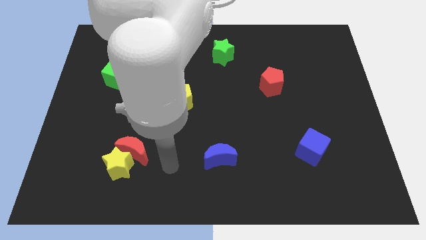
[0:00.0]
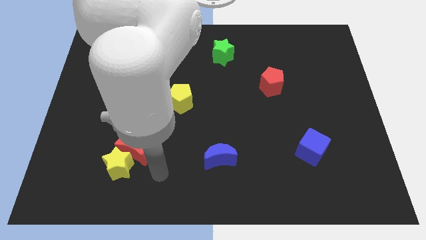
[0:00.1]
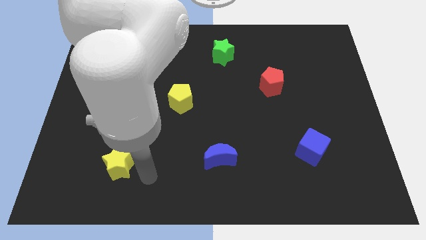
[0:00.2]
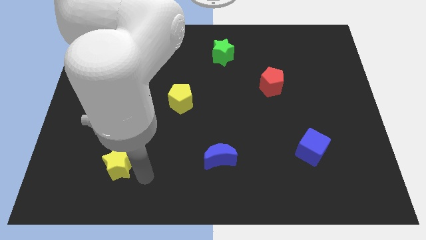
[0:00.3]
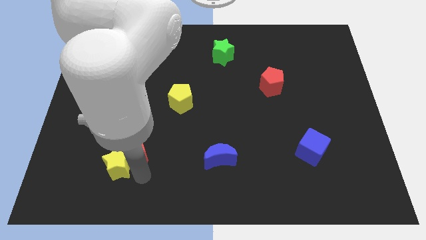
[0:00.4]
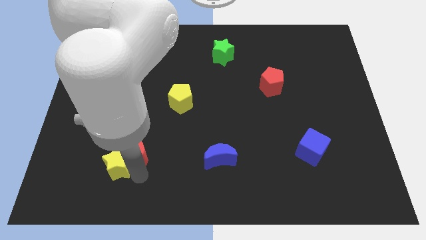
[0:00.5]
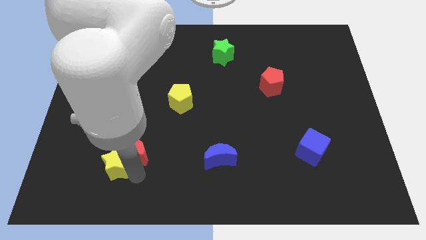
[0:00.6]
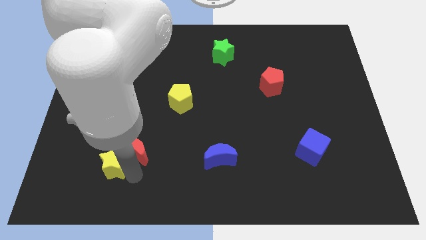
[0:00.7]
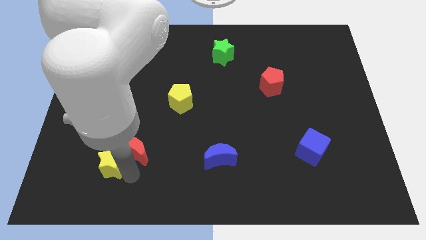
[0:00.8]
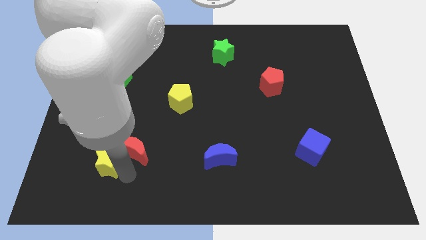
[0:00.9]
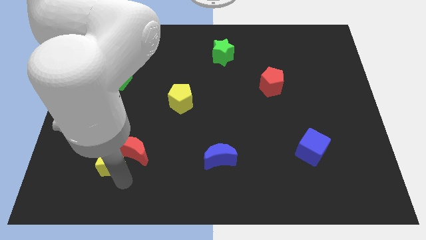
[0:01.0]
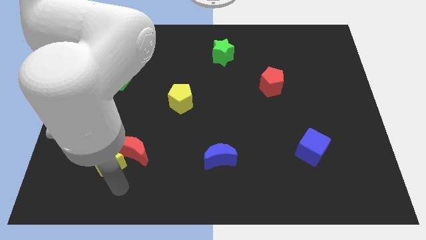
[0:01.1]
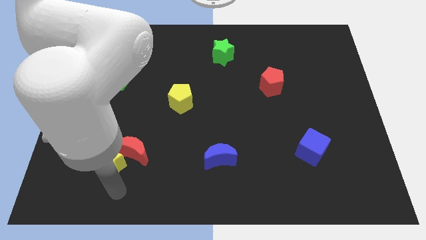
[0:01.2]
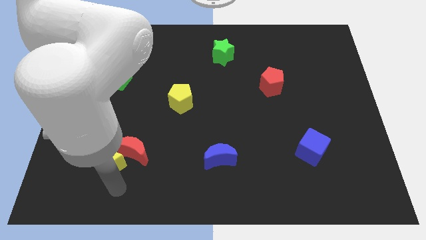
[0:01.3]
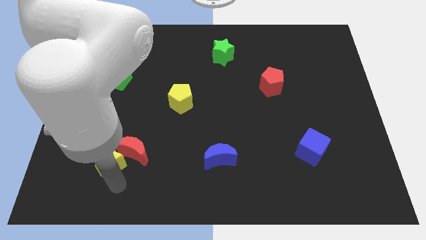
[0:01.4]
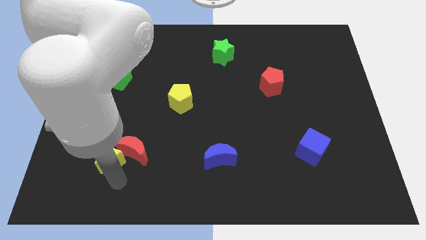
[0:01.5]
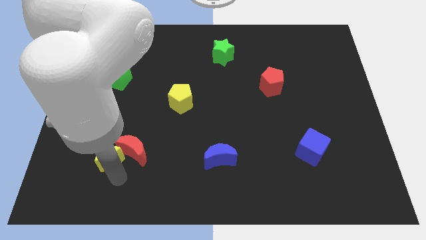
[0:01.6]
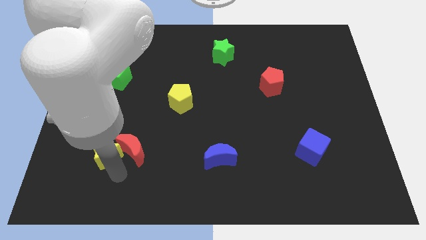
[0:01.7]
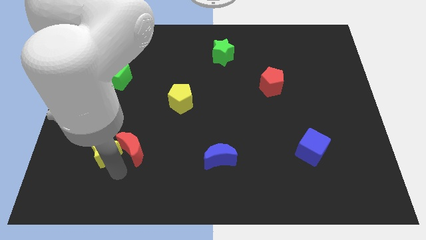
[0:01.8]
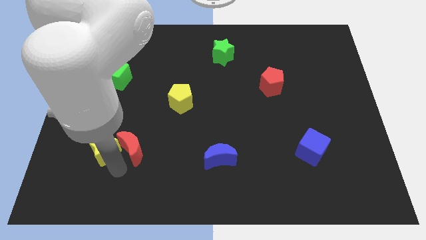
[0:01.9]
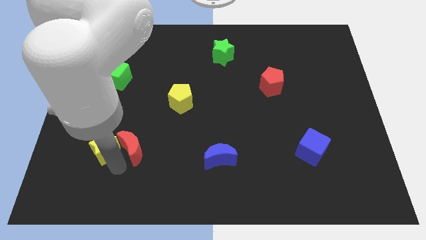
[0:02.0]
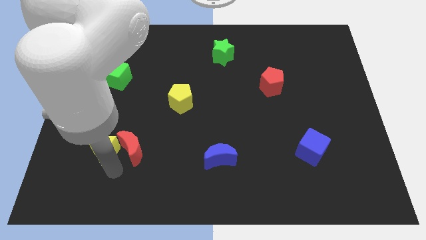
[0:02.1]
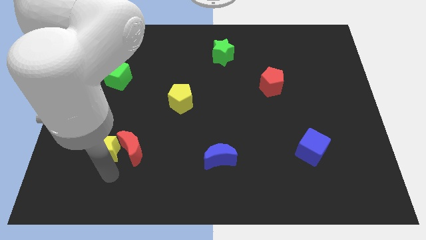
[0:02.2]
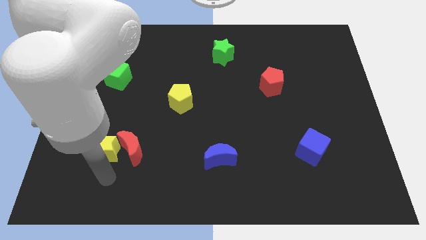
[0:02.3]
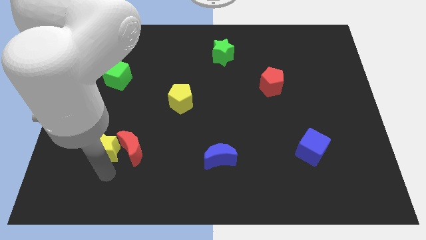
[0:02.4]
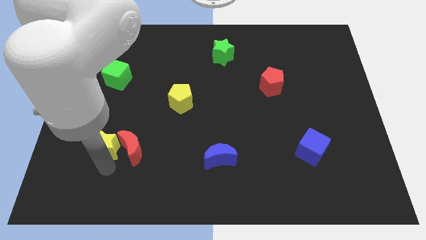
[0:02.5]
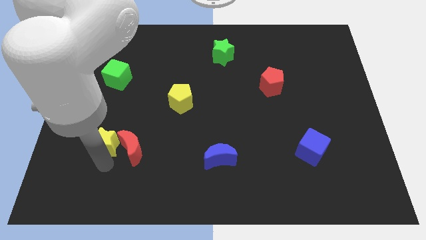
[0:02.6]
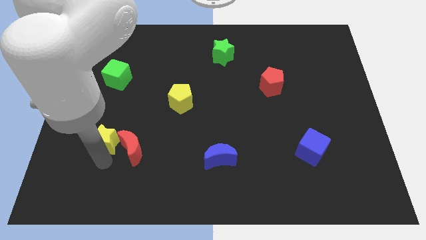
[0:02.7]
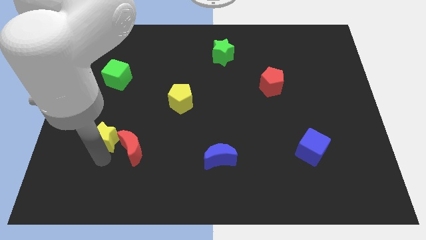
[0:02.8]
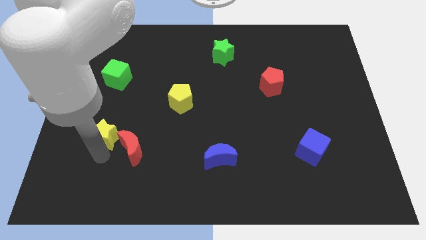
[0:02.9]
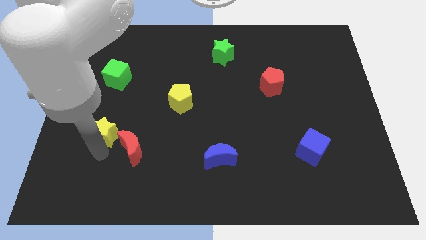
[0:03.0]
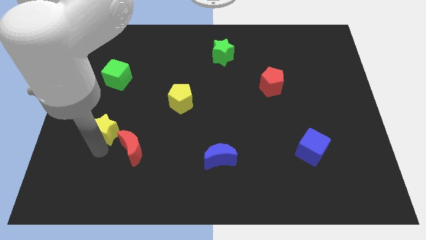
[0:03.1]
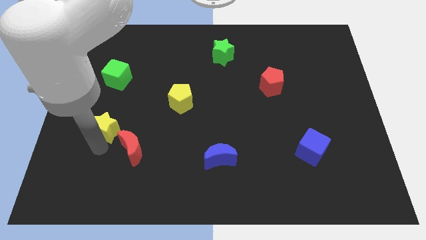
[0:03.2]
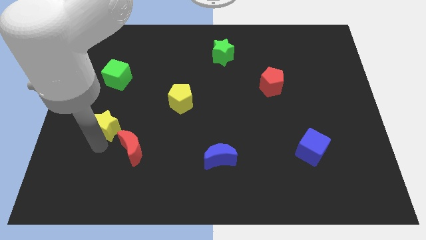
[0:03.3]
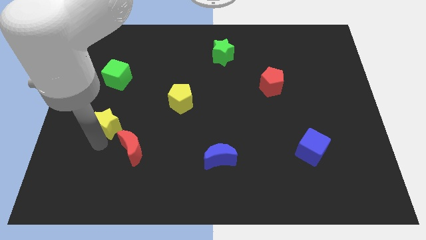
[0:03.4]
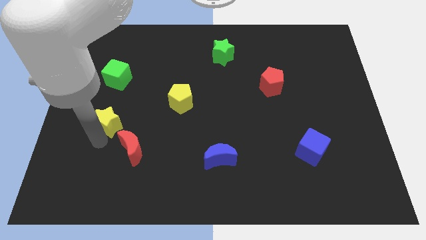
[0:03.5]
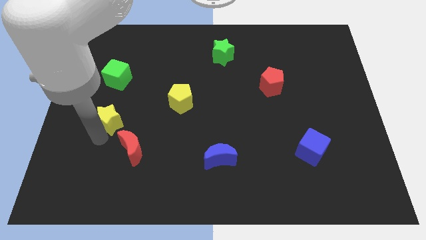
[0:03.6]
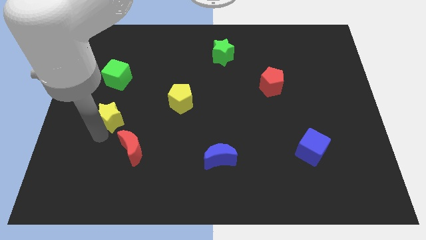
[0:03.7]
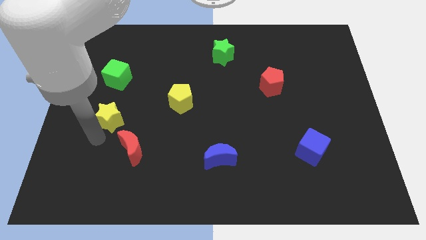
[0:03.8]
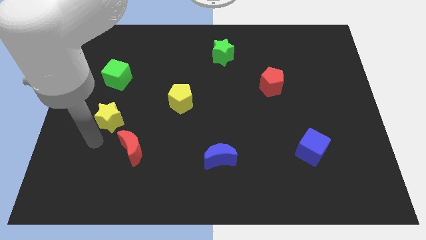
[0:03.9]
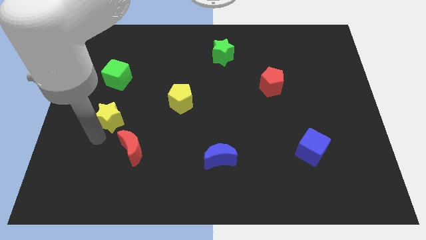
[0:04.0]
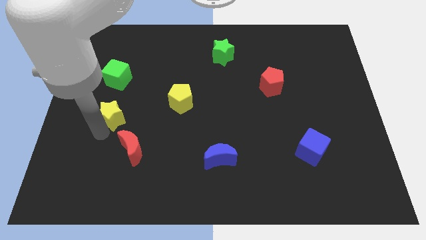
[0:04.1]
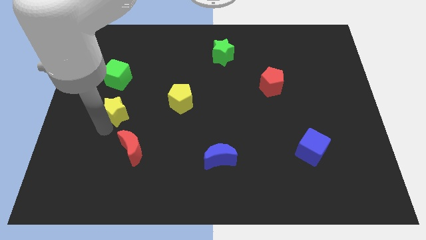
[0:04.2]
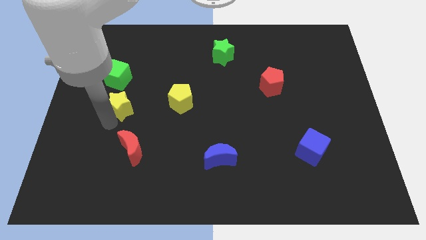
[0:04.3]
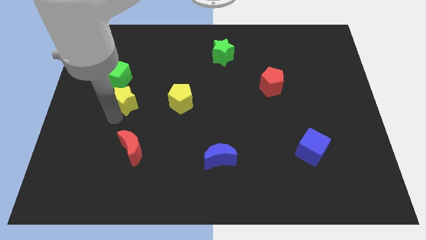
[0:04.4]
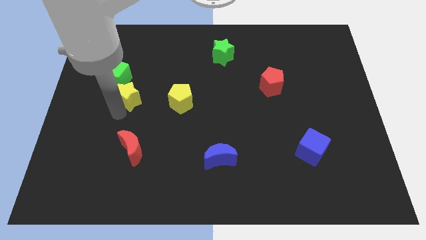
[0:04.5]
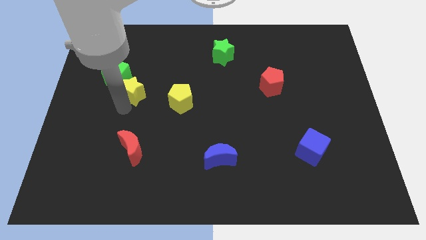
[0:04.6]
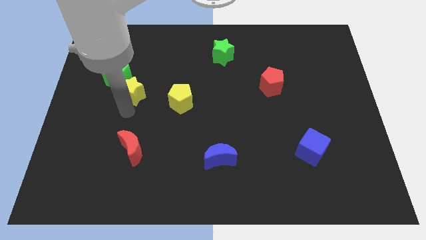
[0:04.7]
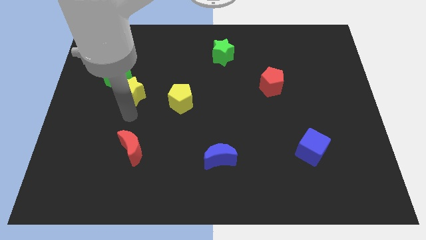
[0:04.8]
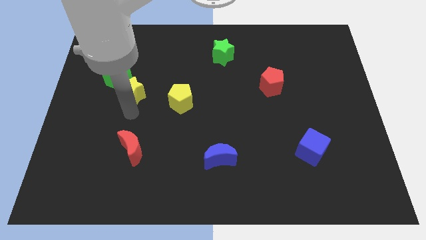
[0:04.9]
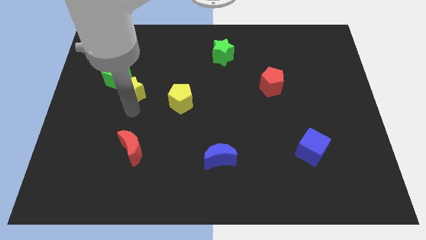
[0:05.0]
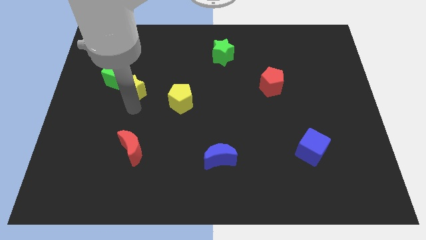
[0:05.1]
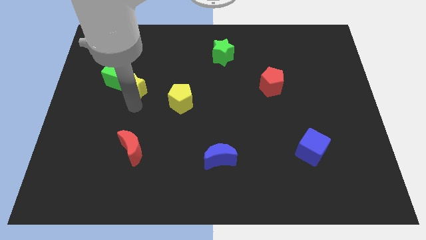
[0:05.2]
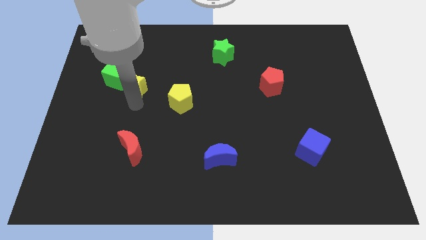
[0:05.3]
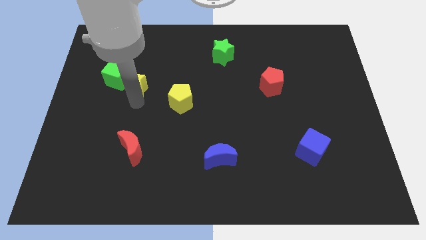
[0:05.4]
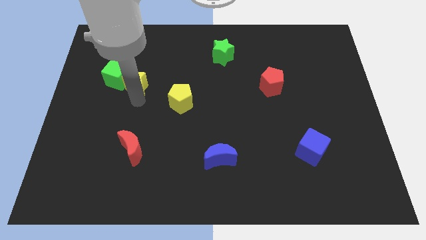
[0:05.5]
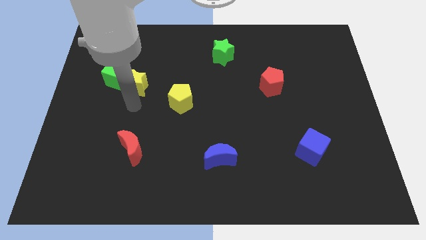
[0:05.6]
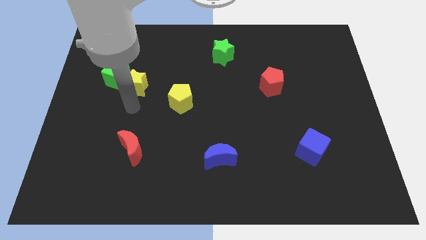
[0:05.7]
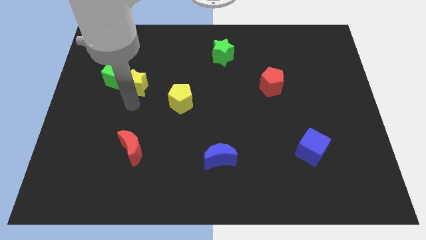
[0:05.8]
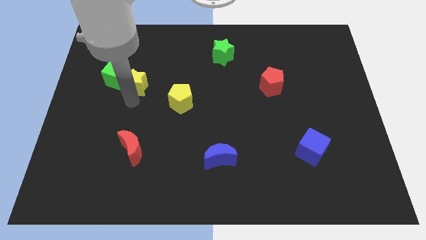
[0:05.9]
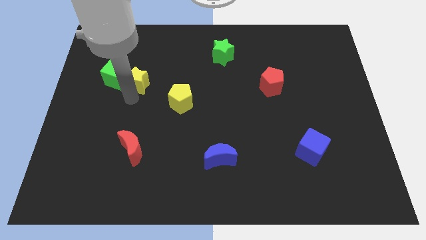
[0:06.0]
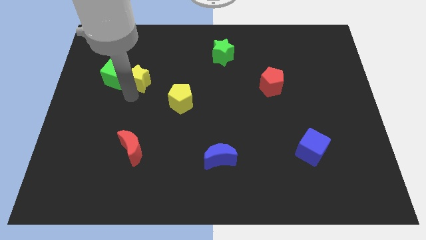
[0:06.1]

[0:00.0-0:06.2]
slide the yellow star to the top right of the green cube

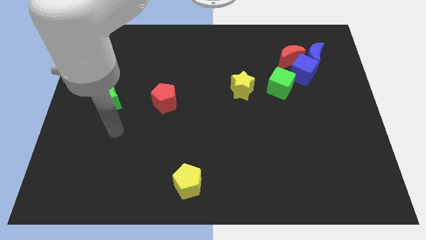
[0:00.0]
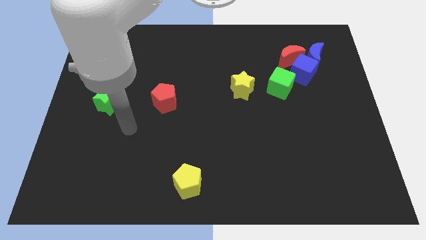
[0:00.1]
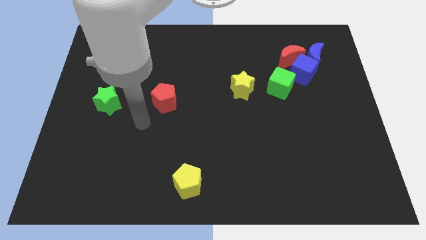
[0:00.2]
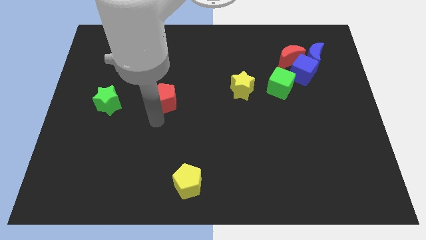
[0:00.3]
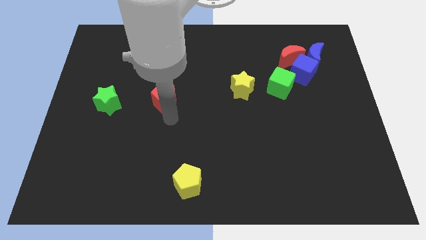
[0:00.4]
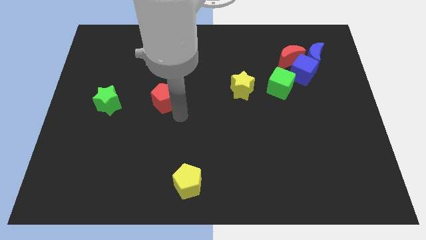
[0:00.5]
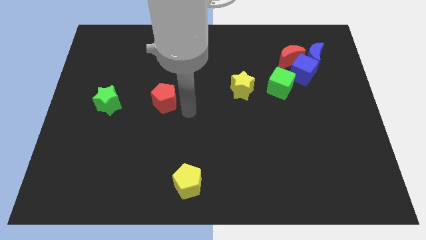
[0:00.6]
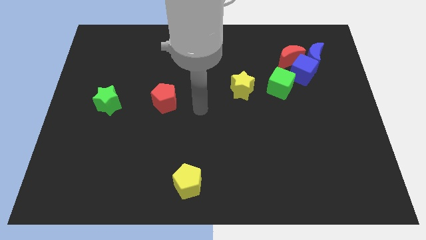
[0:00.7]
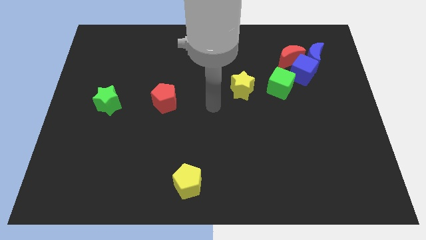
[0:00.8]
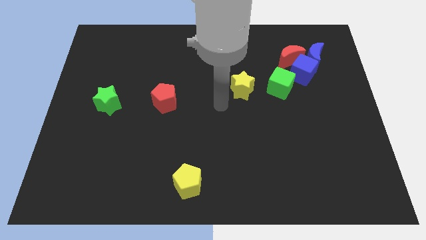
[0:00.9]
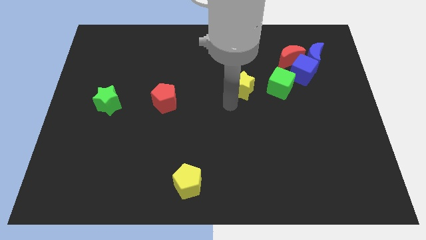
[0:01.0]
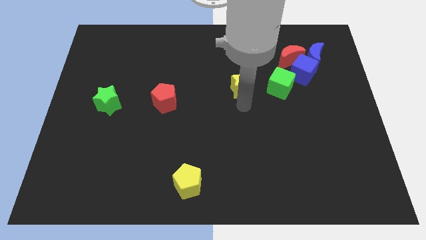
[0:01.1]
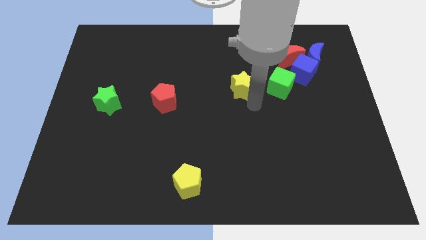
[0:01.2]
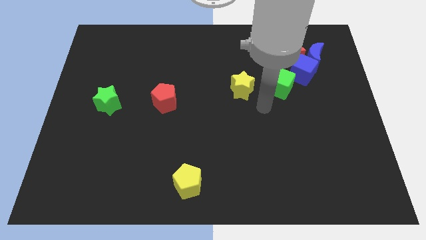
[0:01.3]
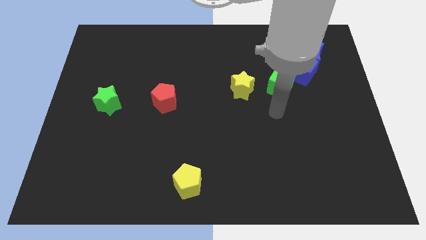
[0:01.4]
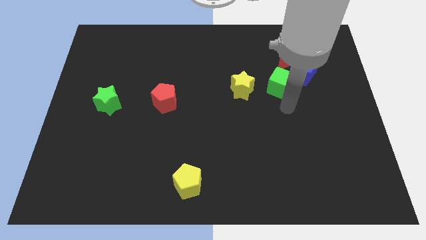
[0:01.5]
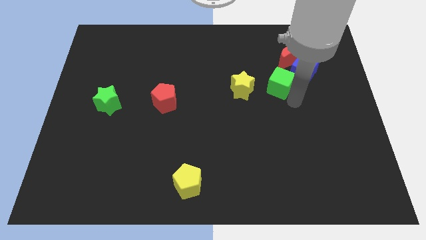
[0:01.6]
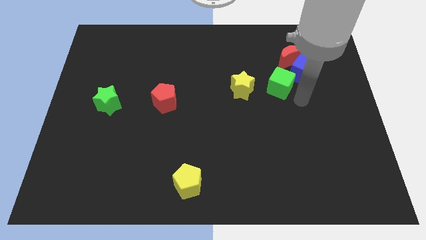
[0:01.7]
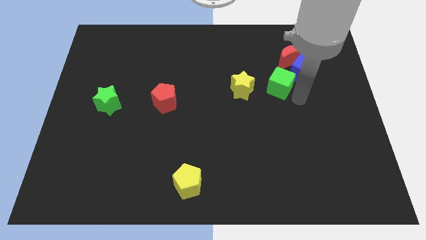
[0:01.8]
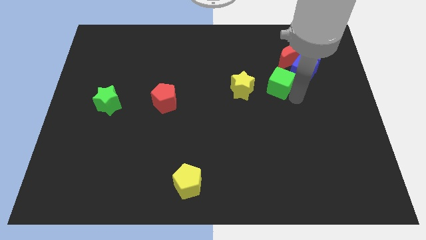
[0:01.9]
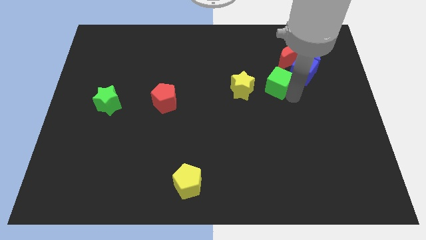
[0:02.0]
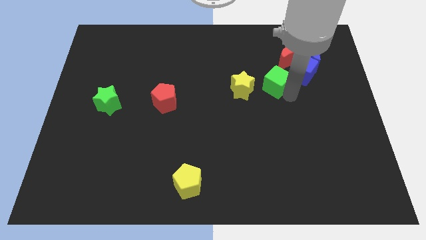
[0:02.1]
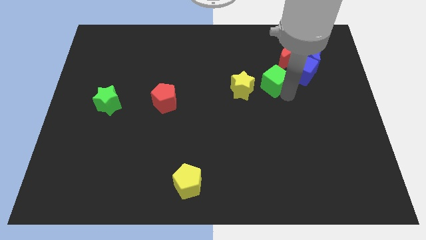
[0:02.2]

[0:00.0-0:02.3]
put the green cube diagonally up and to the right of the yellow star
